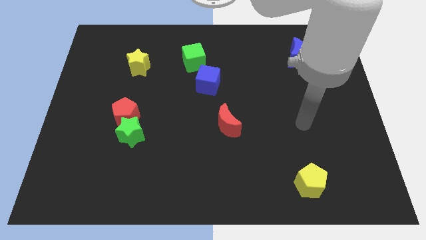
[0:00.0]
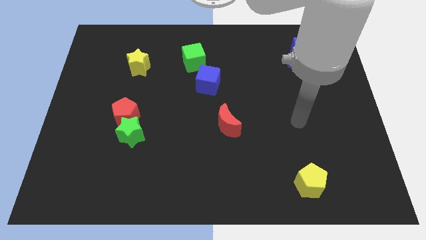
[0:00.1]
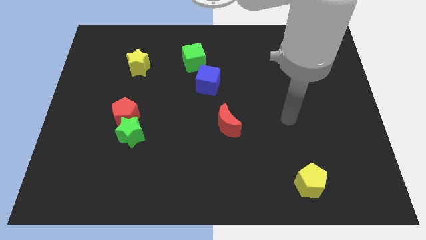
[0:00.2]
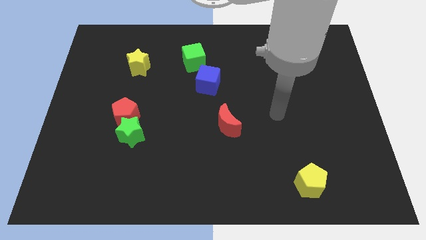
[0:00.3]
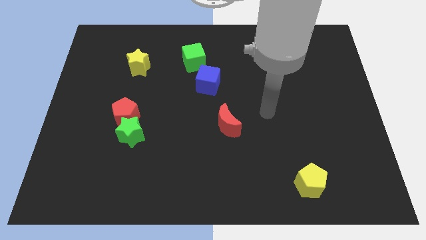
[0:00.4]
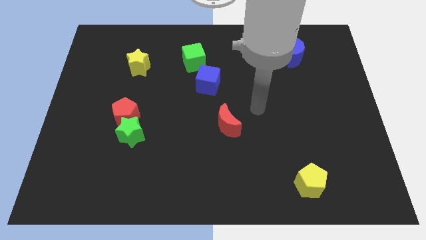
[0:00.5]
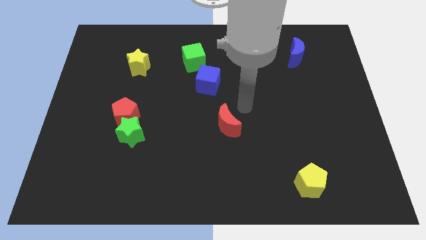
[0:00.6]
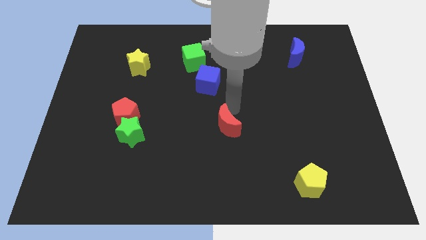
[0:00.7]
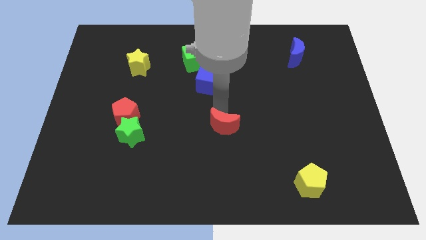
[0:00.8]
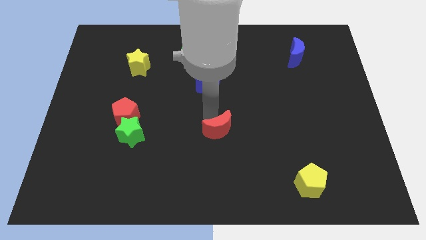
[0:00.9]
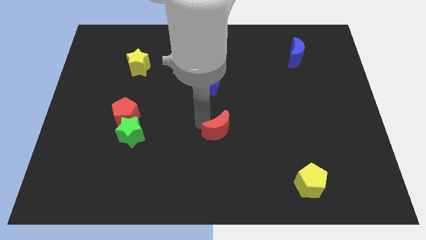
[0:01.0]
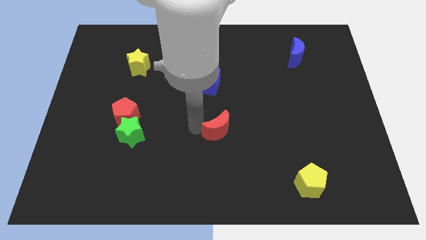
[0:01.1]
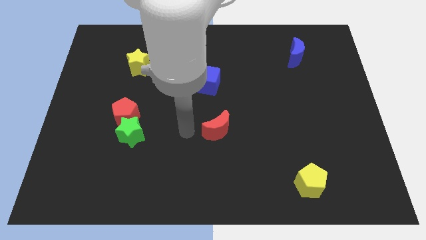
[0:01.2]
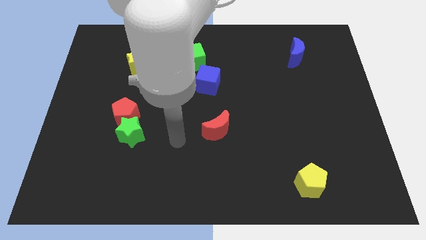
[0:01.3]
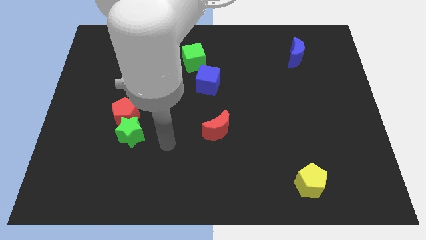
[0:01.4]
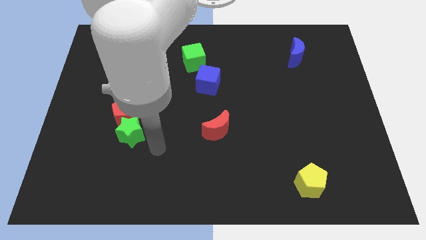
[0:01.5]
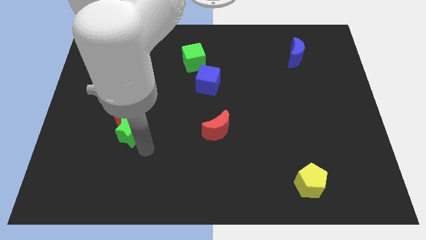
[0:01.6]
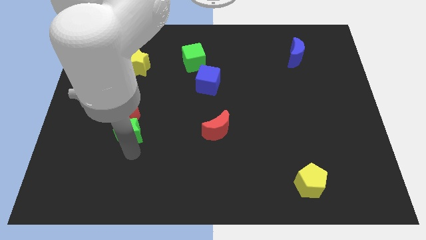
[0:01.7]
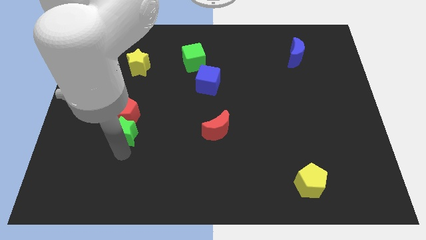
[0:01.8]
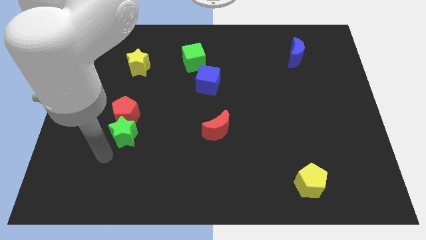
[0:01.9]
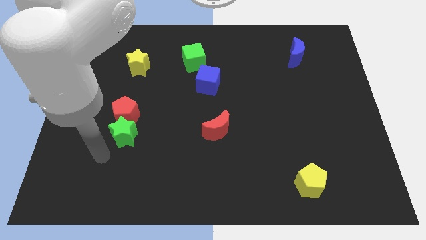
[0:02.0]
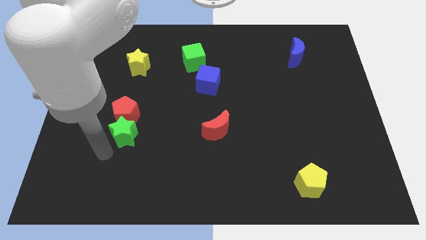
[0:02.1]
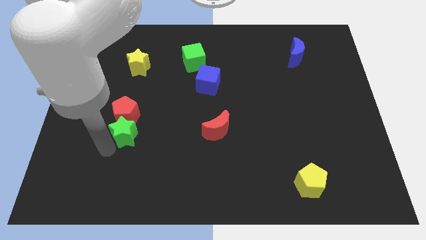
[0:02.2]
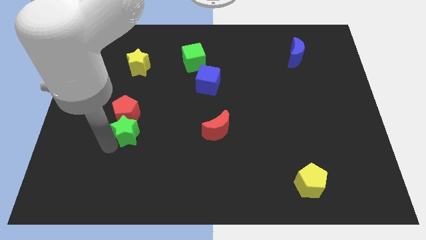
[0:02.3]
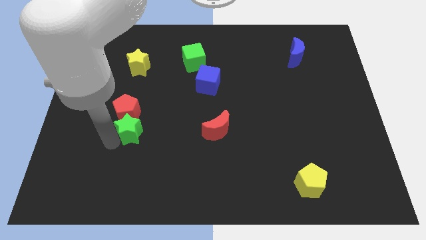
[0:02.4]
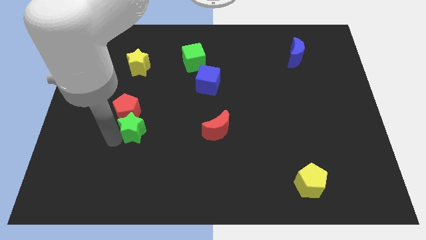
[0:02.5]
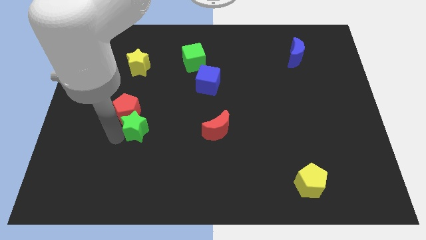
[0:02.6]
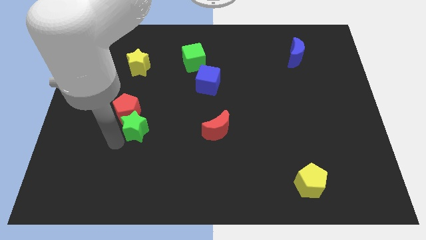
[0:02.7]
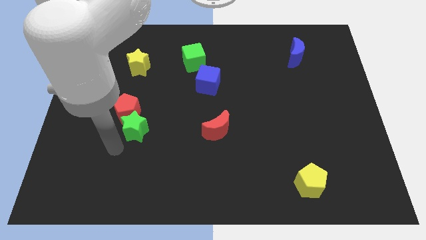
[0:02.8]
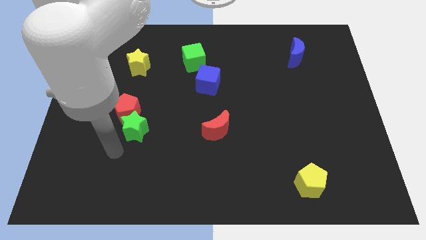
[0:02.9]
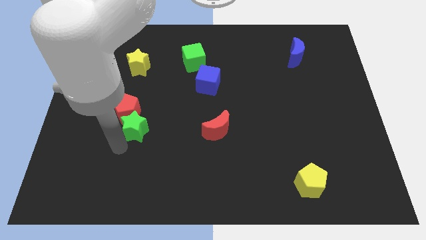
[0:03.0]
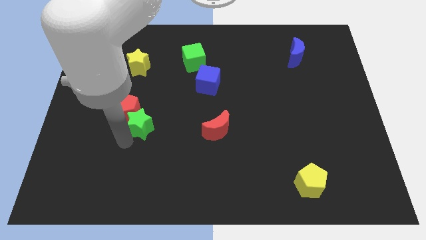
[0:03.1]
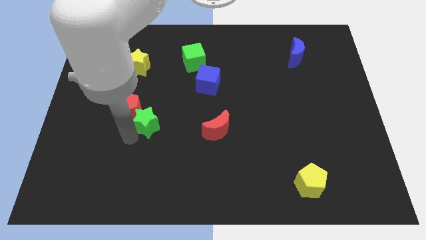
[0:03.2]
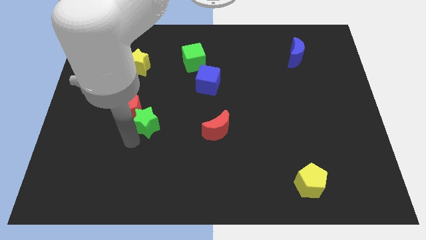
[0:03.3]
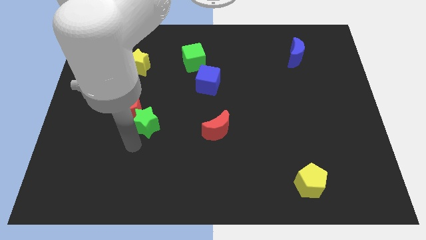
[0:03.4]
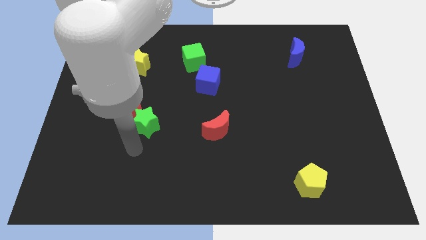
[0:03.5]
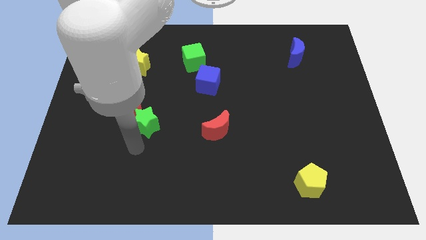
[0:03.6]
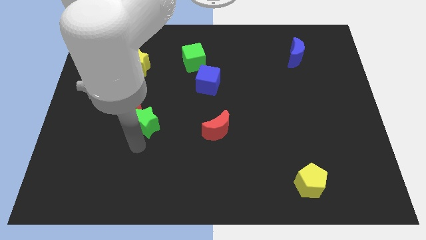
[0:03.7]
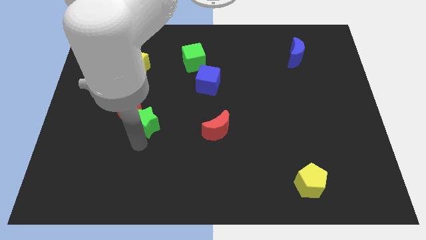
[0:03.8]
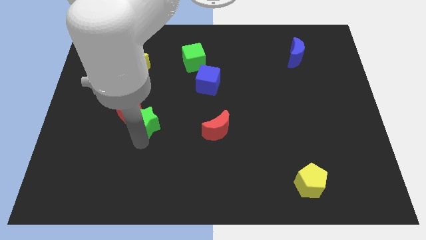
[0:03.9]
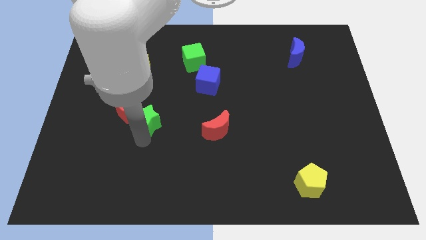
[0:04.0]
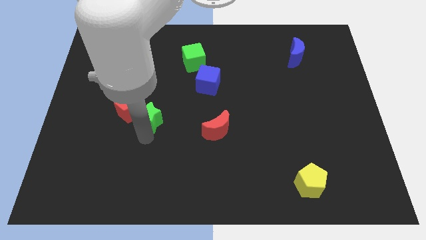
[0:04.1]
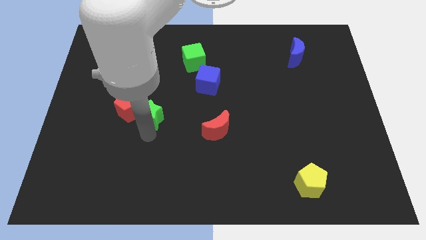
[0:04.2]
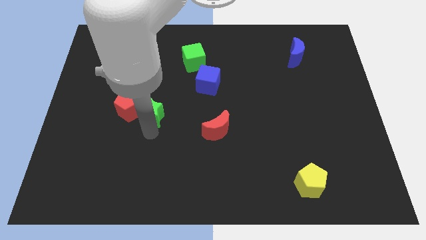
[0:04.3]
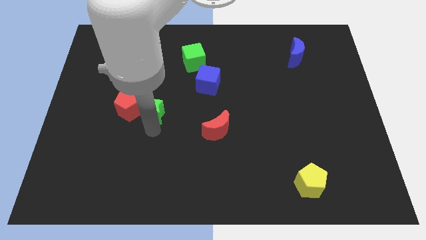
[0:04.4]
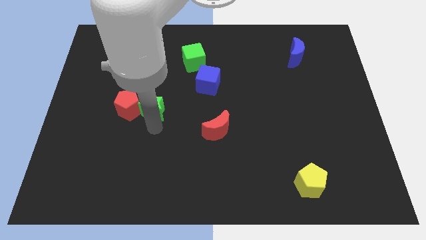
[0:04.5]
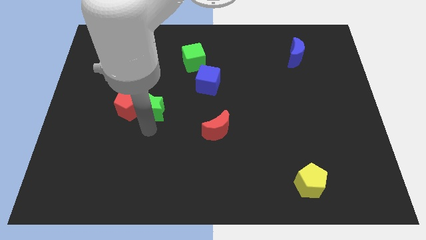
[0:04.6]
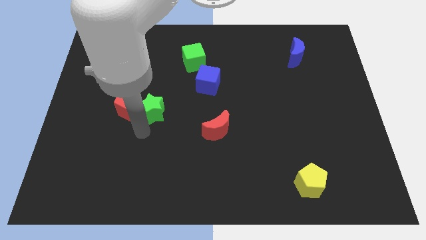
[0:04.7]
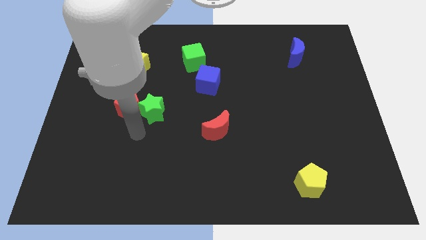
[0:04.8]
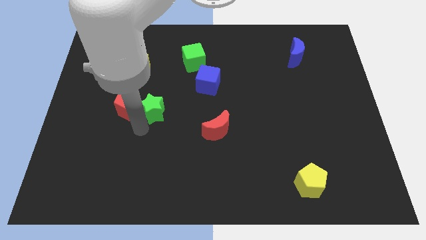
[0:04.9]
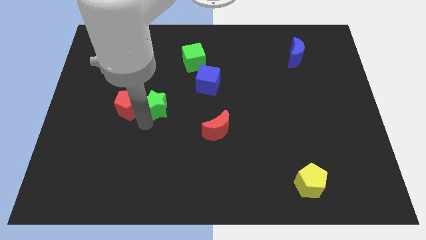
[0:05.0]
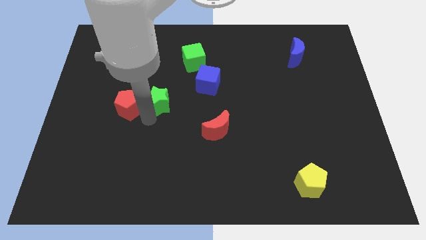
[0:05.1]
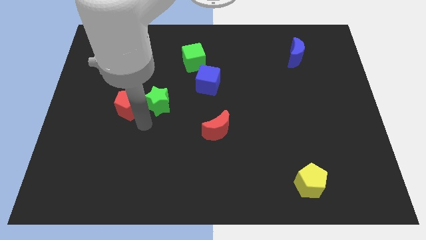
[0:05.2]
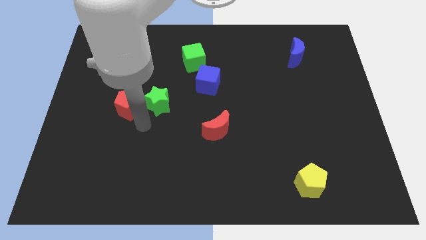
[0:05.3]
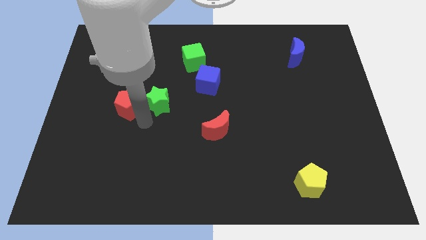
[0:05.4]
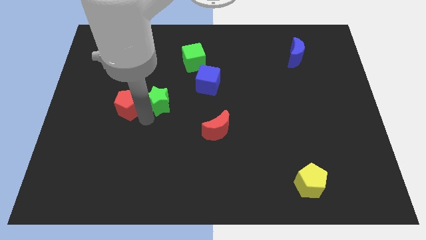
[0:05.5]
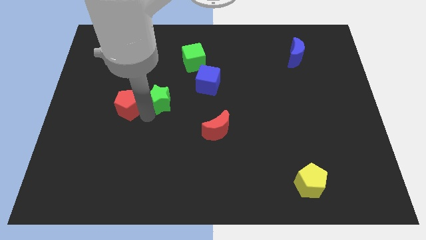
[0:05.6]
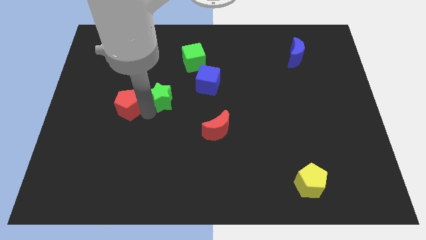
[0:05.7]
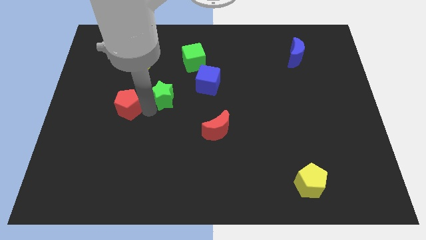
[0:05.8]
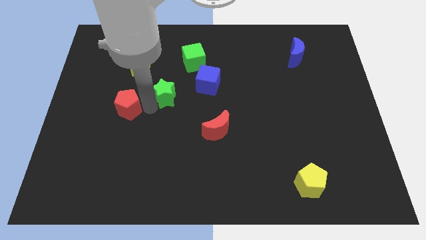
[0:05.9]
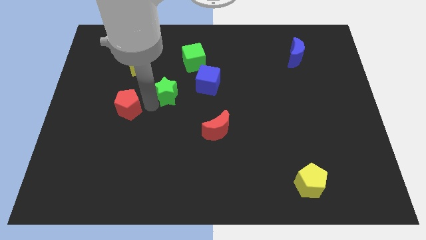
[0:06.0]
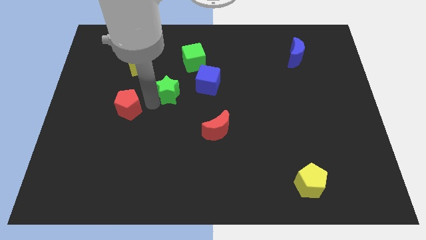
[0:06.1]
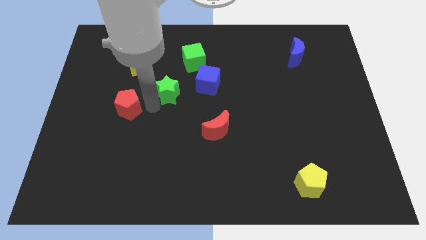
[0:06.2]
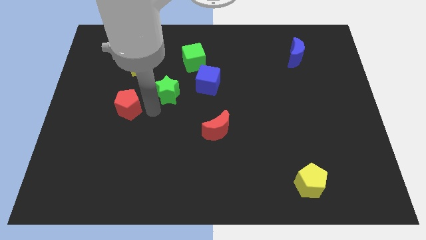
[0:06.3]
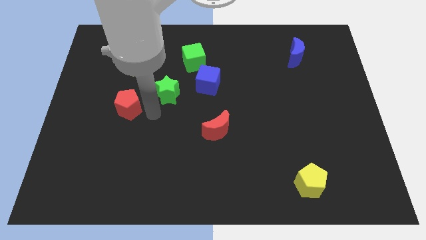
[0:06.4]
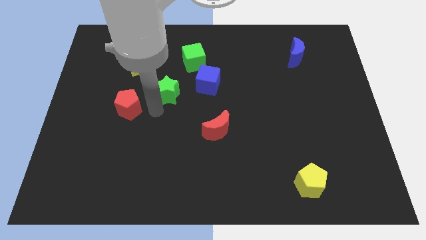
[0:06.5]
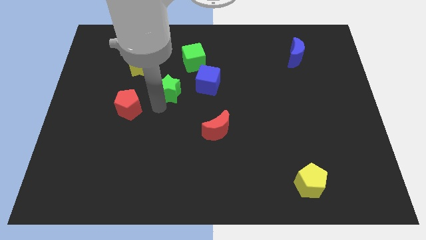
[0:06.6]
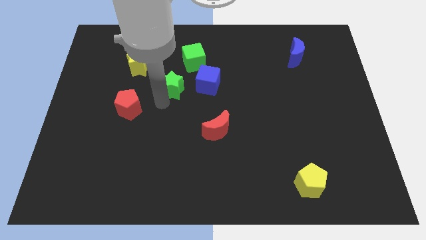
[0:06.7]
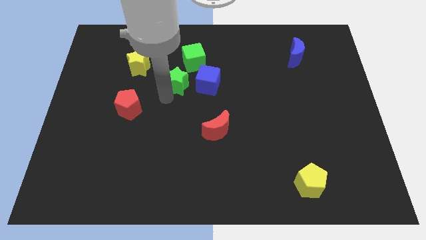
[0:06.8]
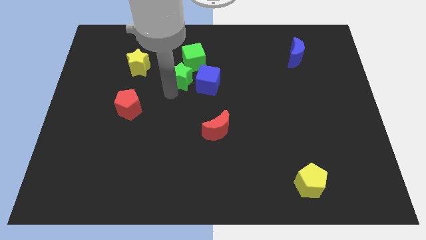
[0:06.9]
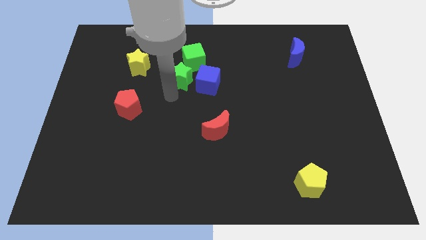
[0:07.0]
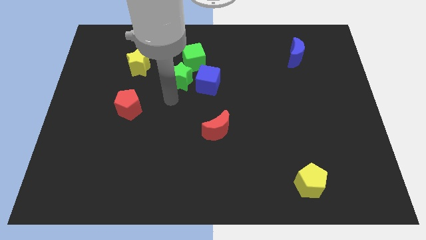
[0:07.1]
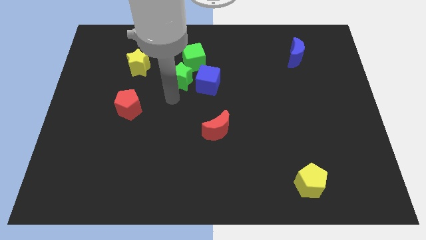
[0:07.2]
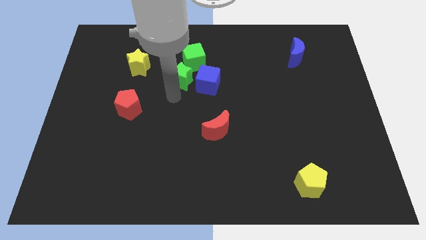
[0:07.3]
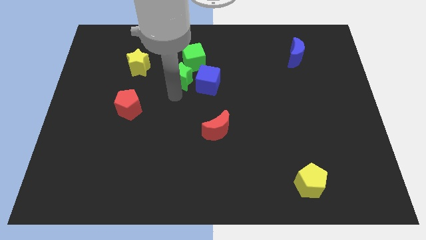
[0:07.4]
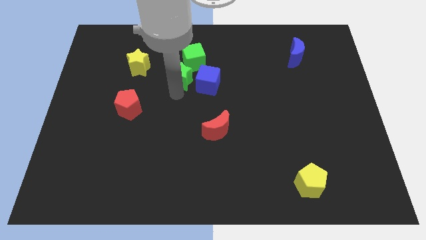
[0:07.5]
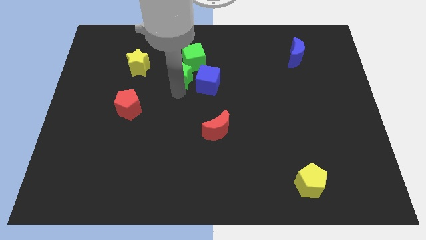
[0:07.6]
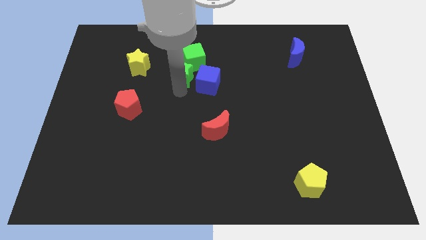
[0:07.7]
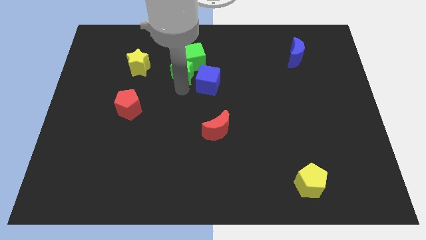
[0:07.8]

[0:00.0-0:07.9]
slide the green star to the green cube

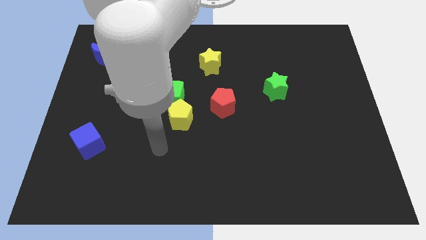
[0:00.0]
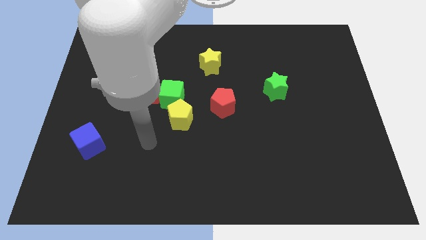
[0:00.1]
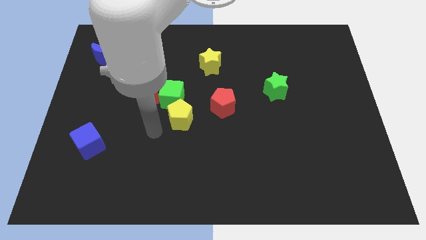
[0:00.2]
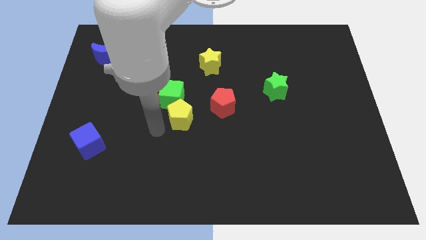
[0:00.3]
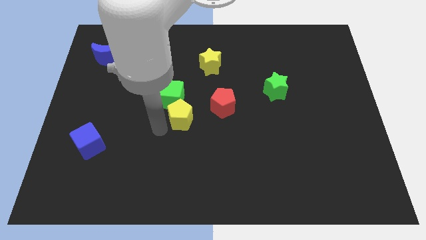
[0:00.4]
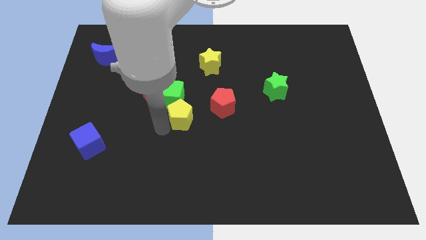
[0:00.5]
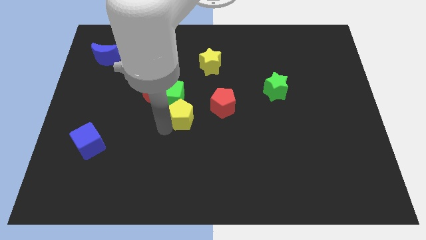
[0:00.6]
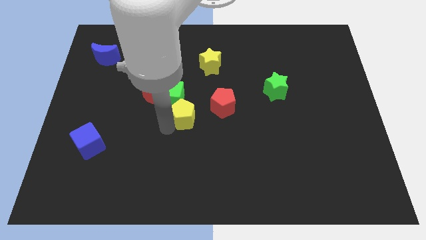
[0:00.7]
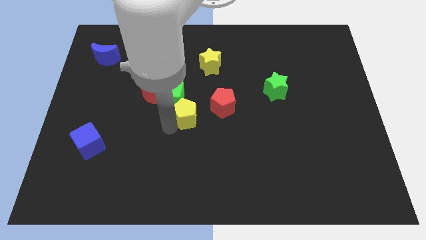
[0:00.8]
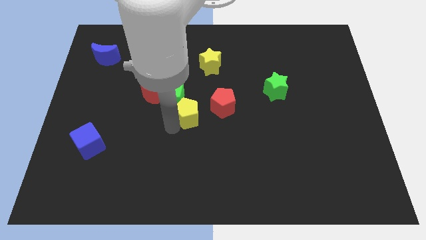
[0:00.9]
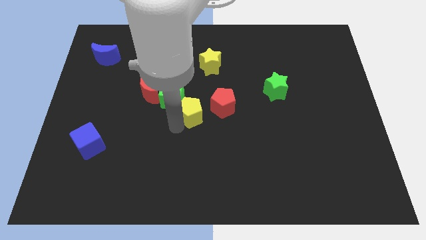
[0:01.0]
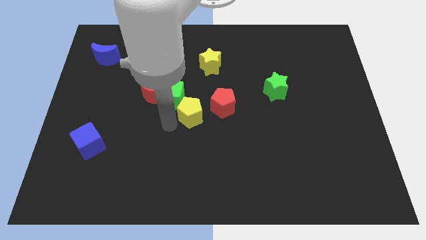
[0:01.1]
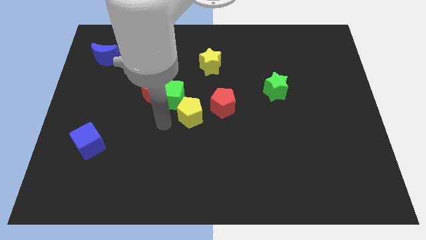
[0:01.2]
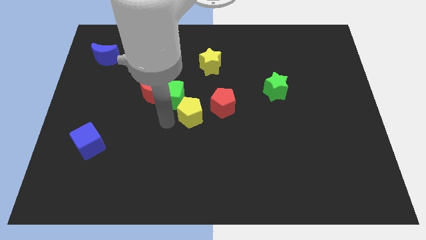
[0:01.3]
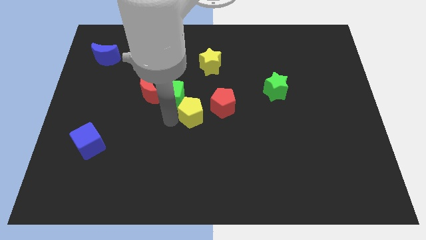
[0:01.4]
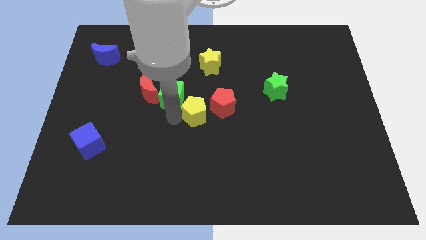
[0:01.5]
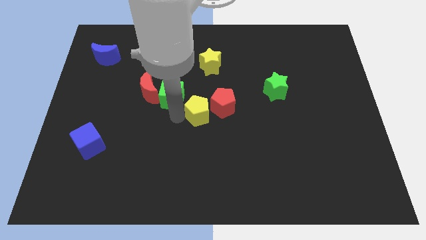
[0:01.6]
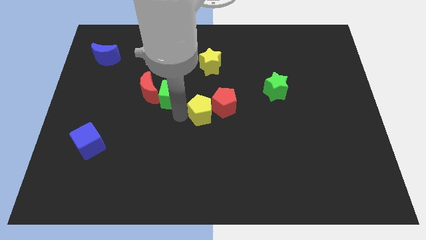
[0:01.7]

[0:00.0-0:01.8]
push the yellow pentagon to the red pentagon
